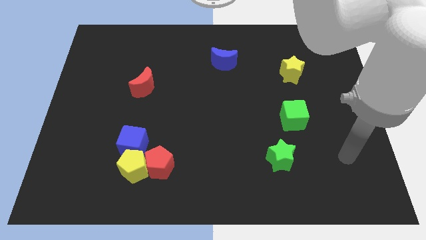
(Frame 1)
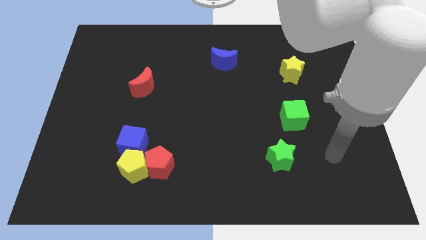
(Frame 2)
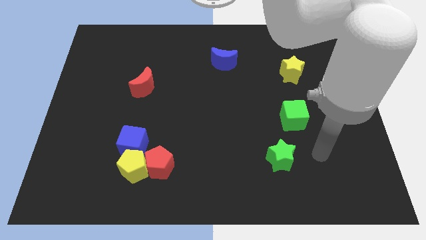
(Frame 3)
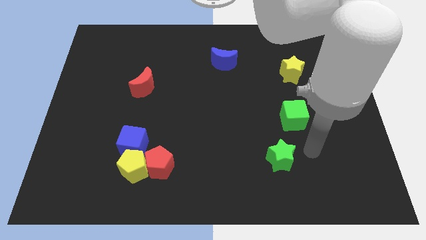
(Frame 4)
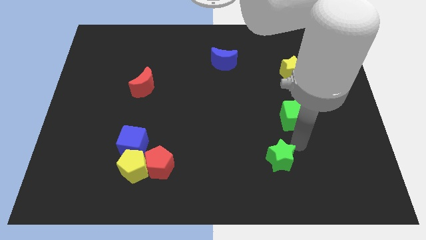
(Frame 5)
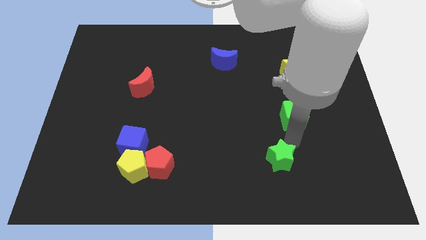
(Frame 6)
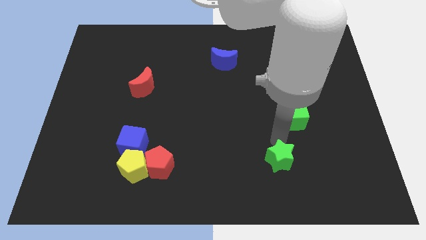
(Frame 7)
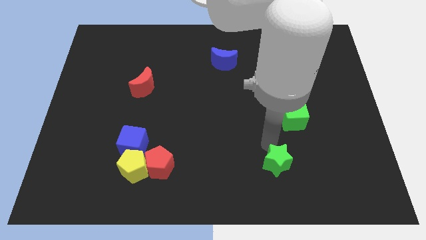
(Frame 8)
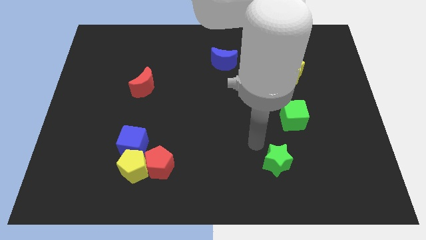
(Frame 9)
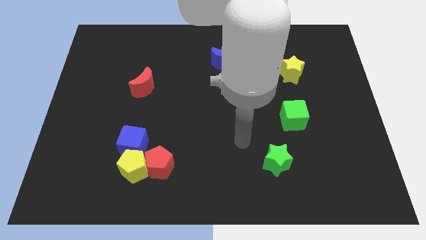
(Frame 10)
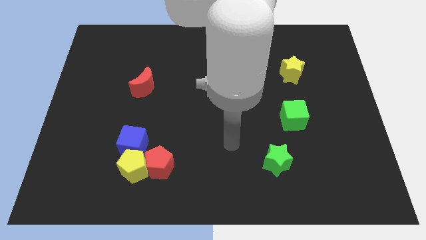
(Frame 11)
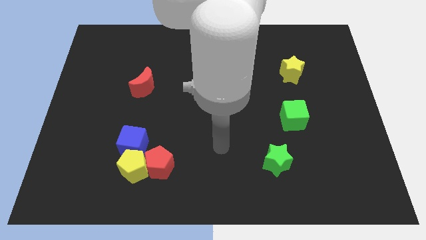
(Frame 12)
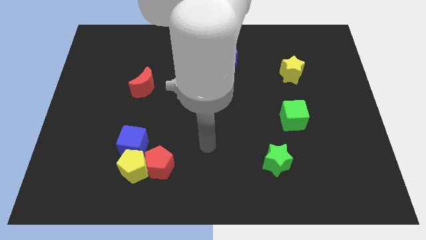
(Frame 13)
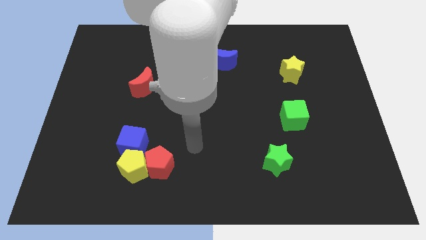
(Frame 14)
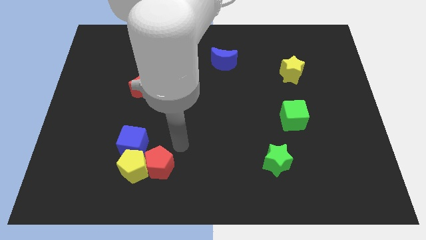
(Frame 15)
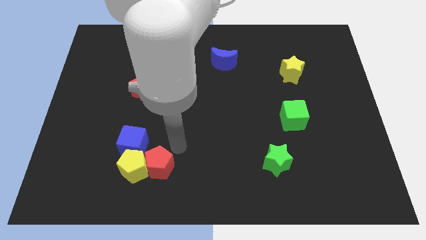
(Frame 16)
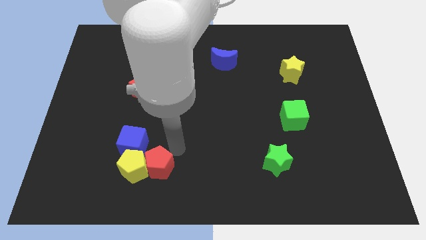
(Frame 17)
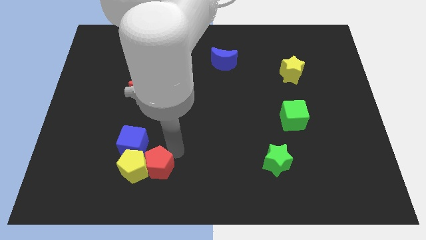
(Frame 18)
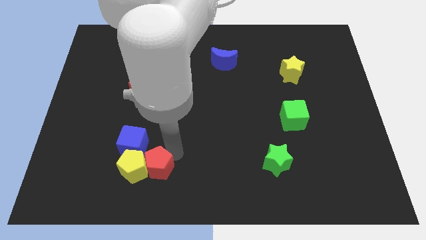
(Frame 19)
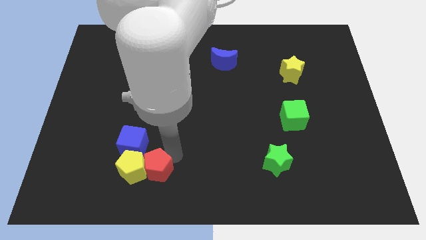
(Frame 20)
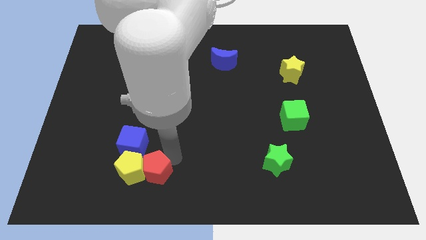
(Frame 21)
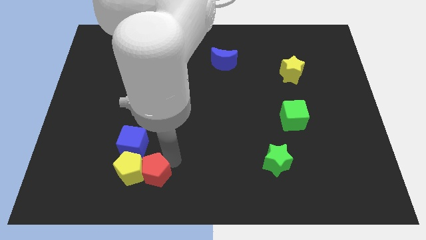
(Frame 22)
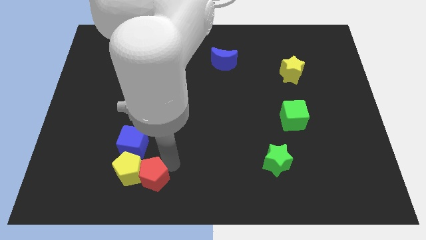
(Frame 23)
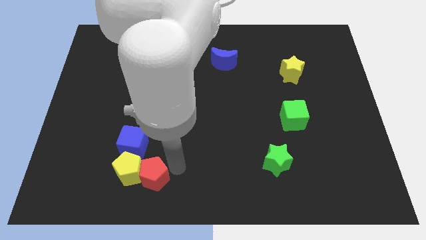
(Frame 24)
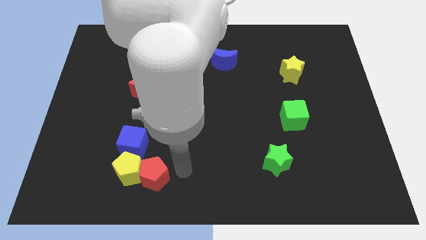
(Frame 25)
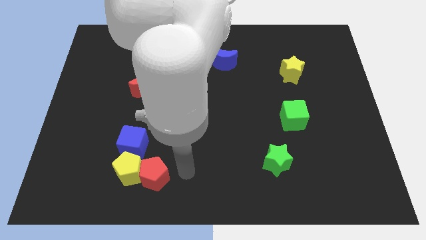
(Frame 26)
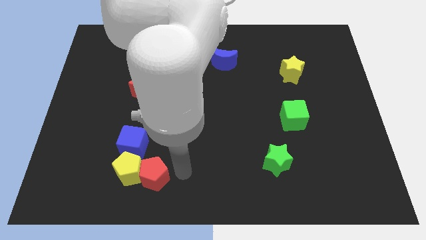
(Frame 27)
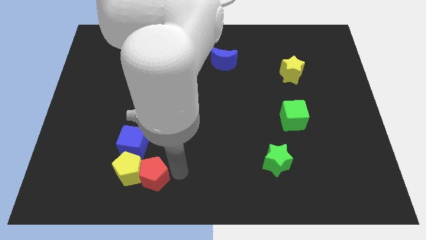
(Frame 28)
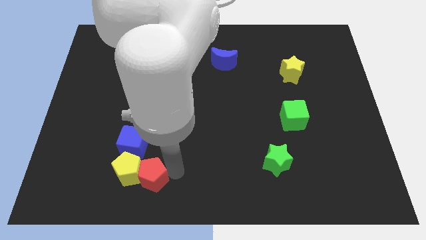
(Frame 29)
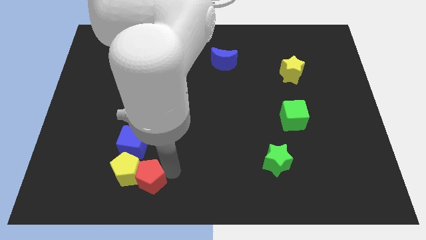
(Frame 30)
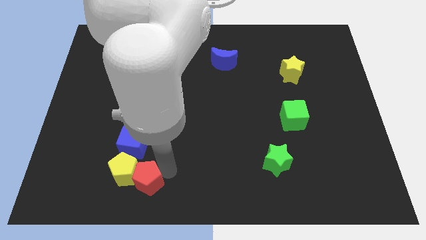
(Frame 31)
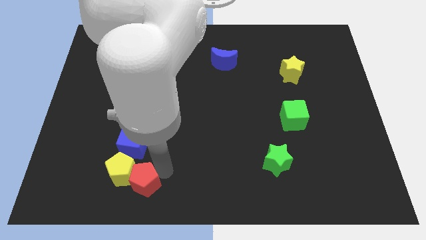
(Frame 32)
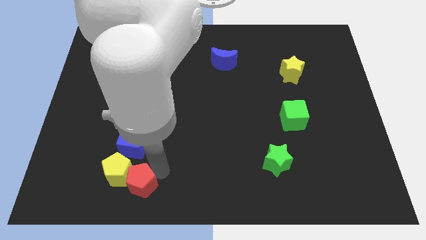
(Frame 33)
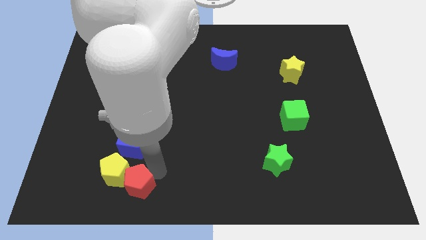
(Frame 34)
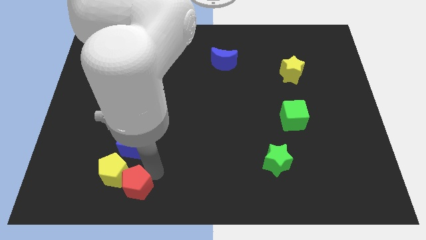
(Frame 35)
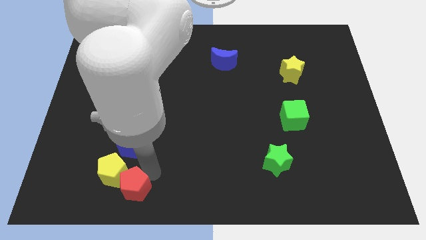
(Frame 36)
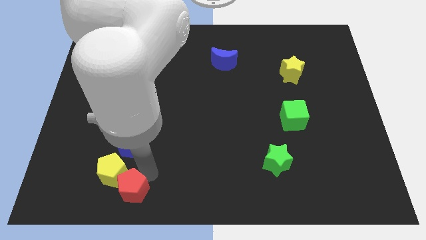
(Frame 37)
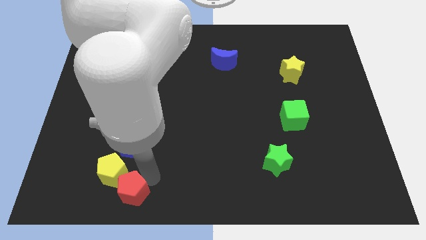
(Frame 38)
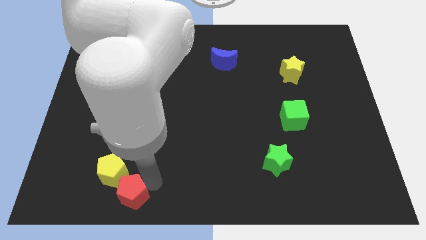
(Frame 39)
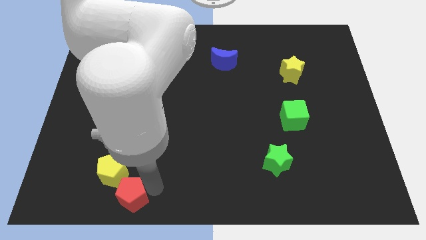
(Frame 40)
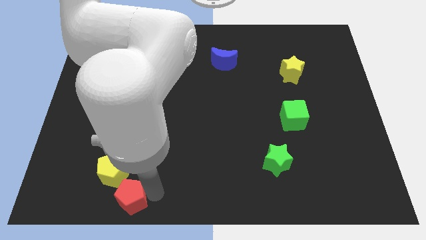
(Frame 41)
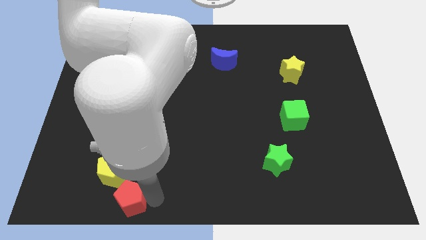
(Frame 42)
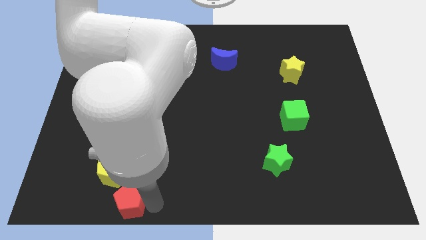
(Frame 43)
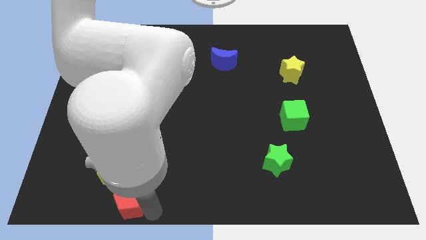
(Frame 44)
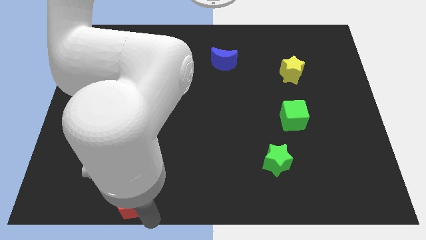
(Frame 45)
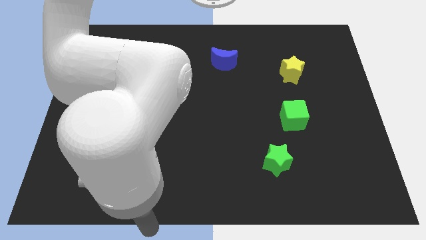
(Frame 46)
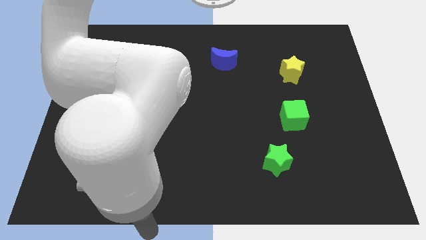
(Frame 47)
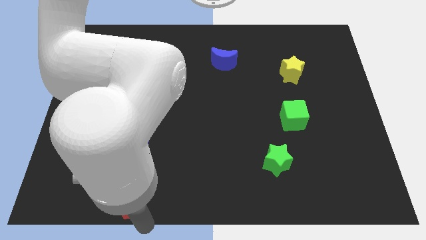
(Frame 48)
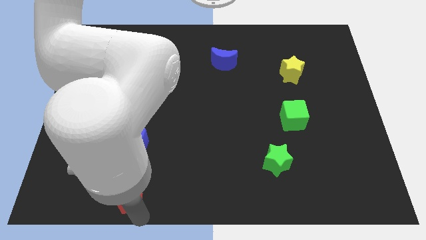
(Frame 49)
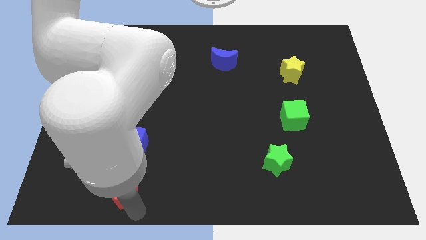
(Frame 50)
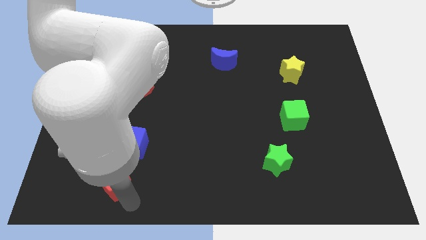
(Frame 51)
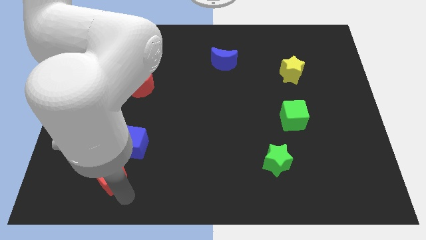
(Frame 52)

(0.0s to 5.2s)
slide the red pentagon to the bottom left of the blue cube

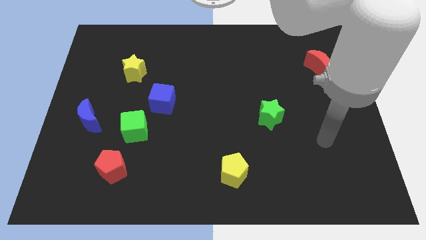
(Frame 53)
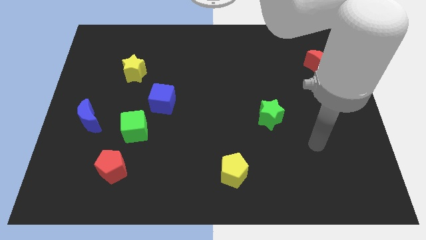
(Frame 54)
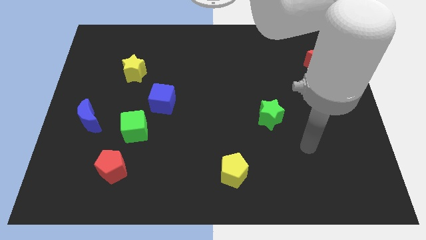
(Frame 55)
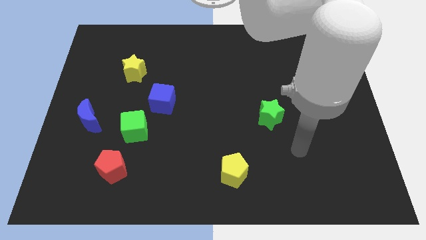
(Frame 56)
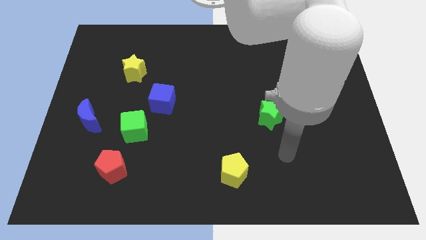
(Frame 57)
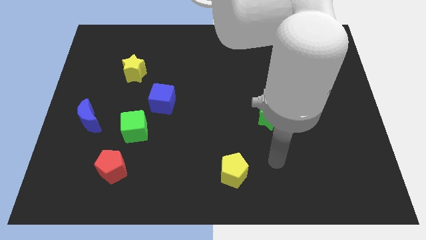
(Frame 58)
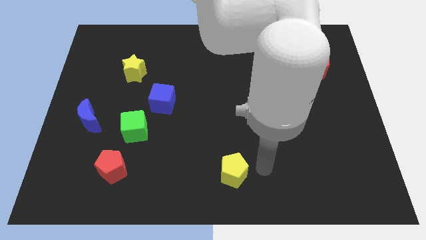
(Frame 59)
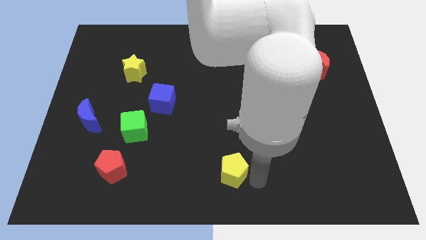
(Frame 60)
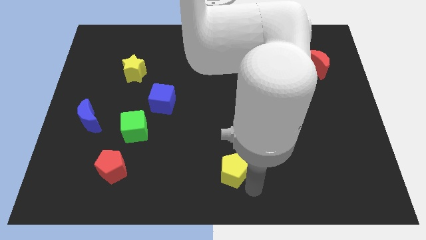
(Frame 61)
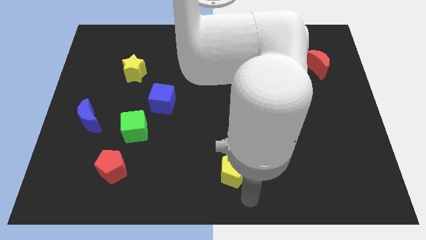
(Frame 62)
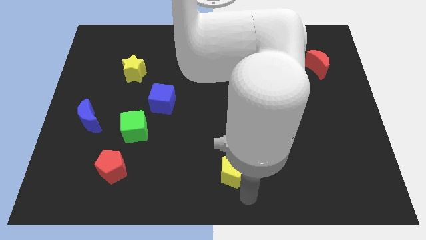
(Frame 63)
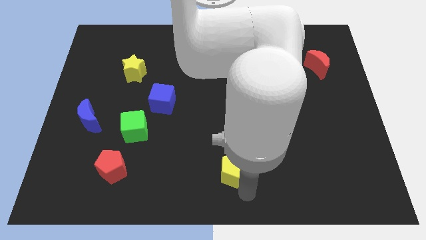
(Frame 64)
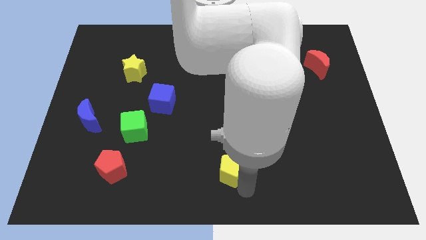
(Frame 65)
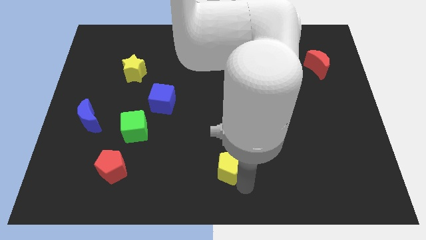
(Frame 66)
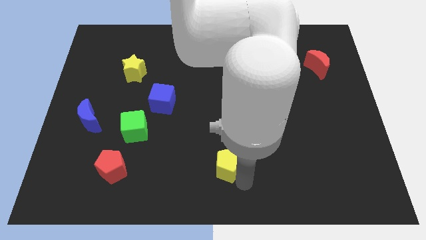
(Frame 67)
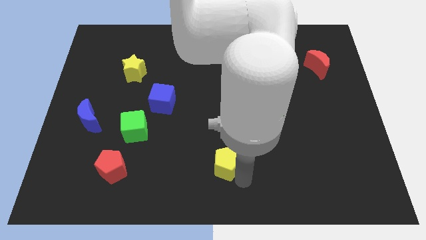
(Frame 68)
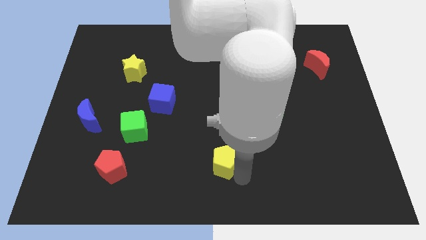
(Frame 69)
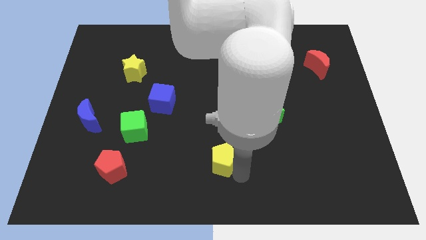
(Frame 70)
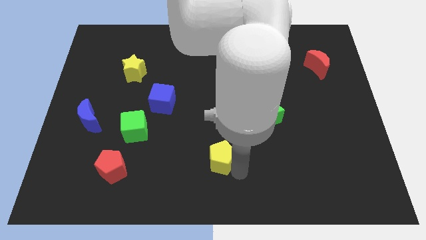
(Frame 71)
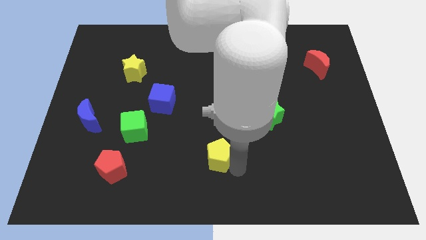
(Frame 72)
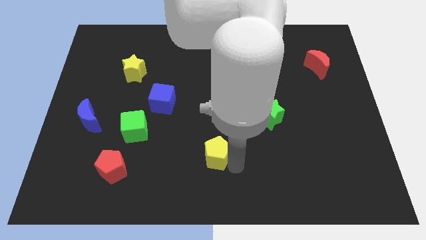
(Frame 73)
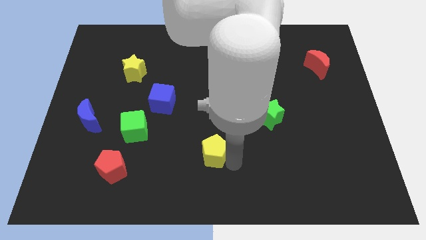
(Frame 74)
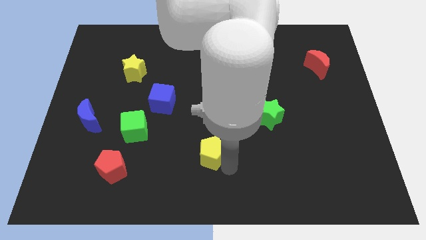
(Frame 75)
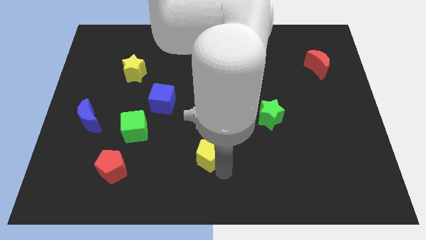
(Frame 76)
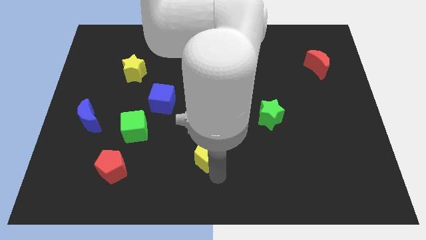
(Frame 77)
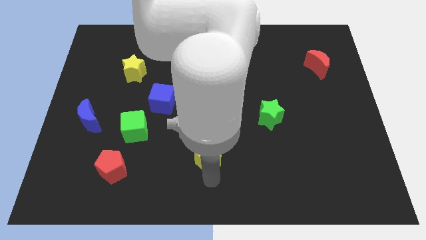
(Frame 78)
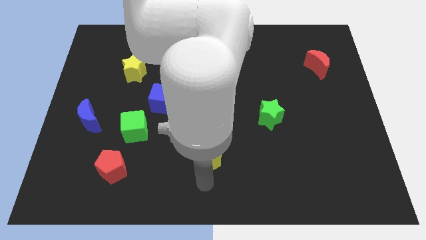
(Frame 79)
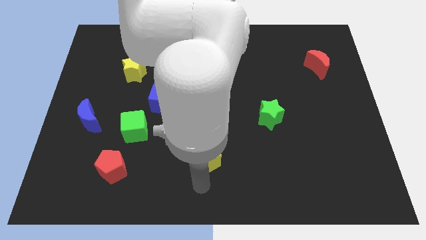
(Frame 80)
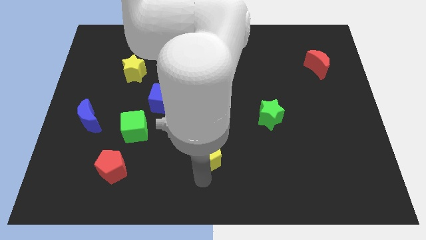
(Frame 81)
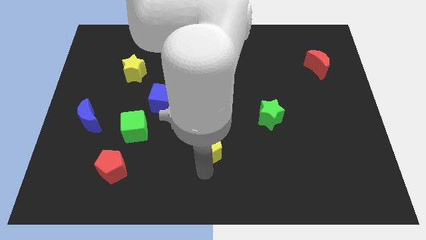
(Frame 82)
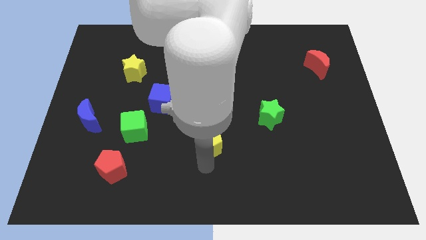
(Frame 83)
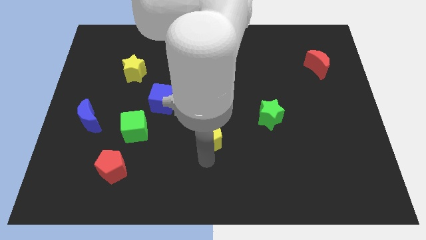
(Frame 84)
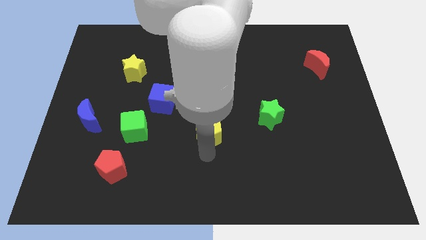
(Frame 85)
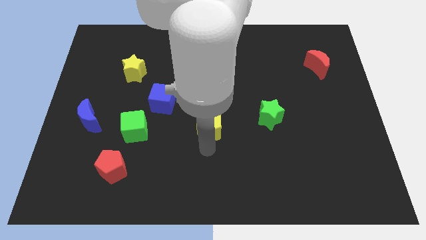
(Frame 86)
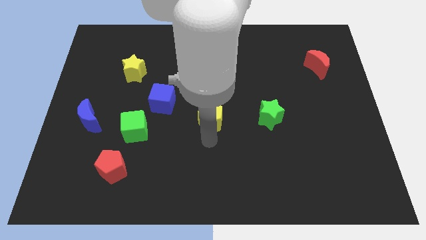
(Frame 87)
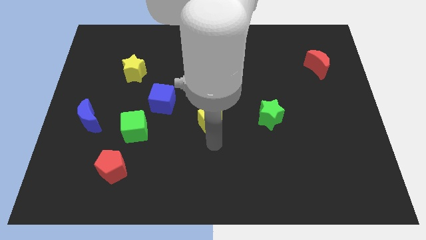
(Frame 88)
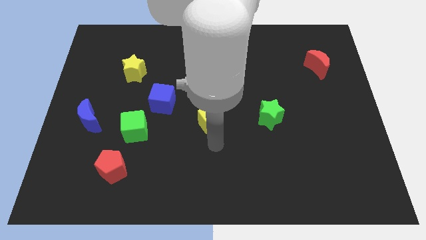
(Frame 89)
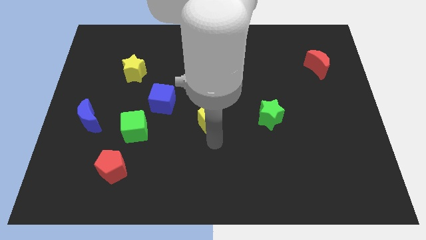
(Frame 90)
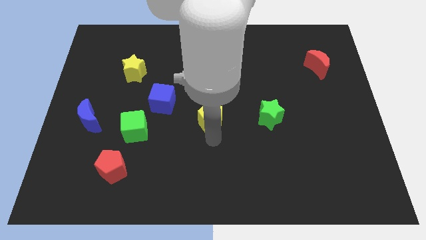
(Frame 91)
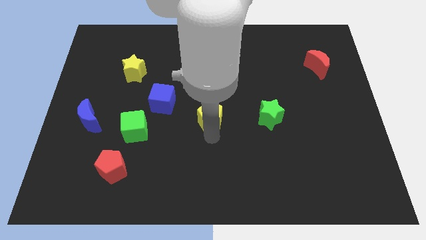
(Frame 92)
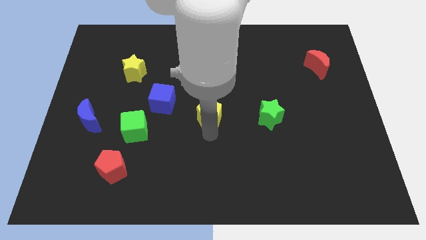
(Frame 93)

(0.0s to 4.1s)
push the yellow pentagon right of the blue cube
